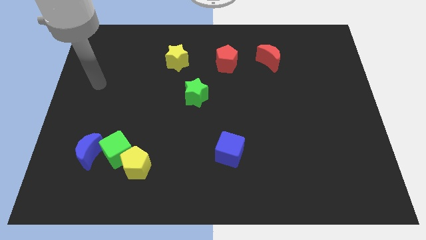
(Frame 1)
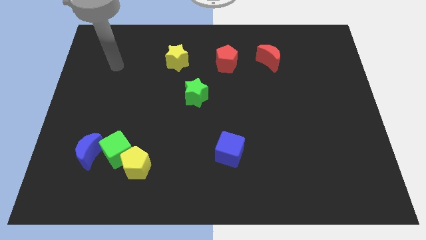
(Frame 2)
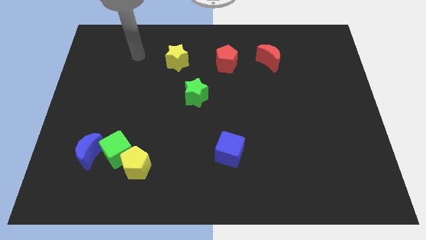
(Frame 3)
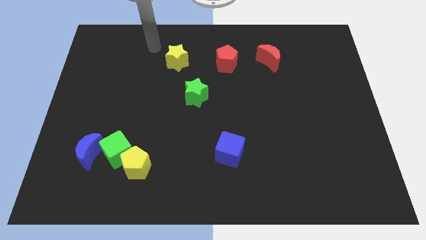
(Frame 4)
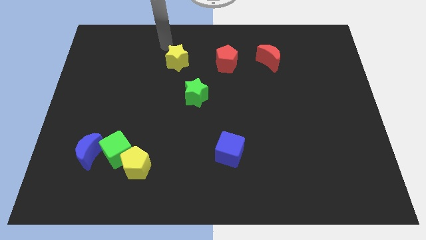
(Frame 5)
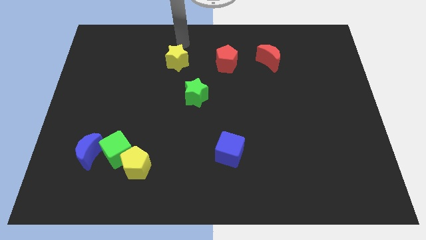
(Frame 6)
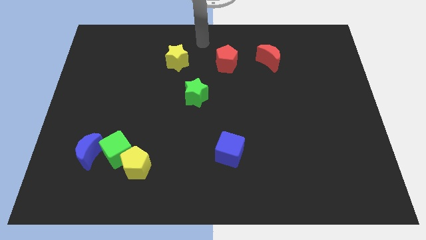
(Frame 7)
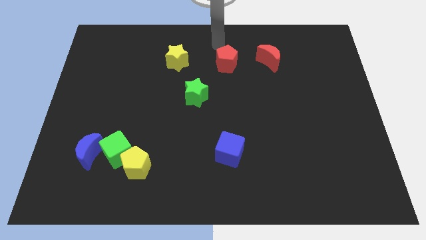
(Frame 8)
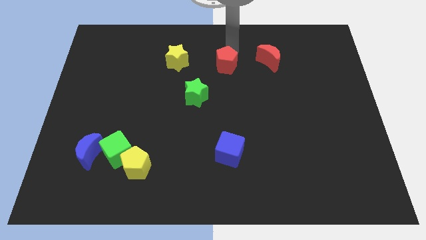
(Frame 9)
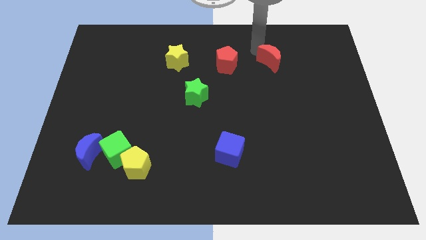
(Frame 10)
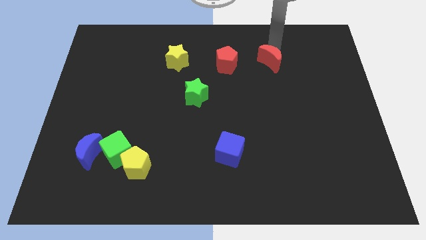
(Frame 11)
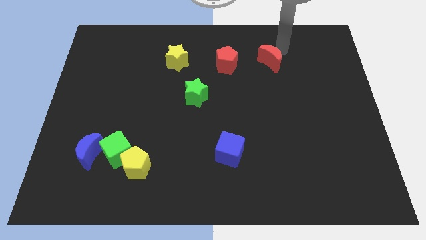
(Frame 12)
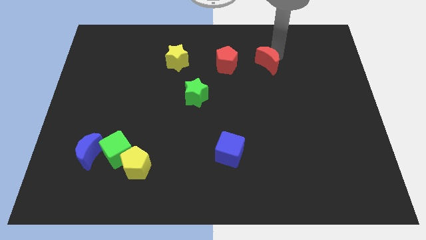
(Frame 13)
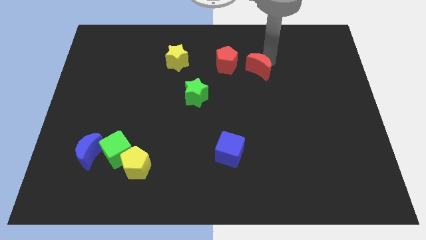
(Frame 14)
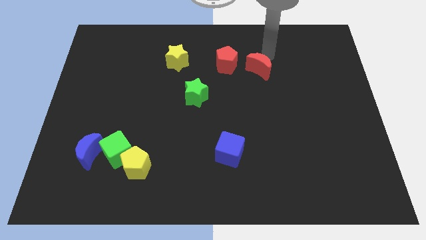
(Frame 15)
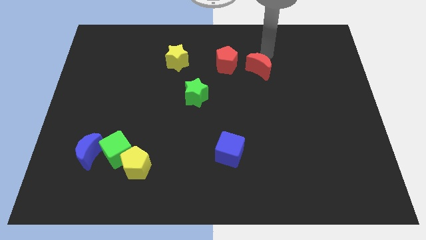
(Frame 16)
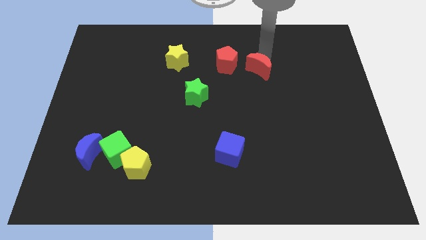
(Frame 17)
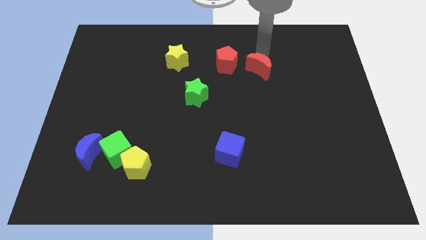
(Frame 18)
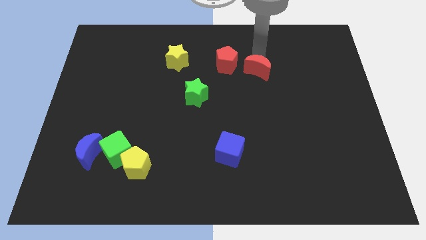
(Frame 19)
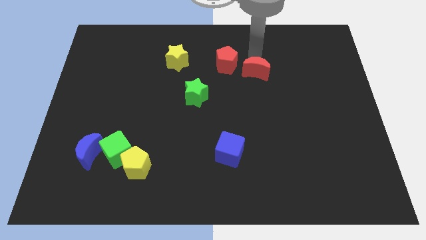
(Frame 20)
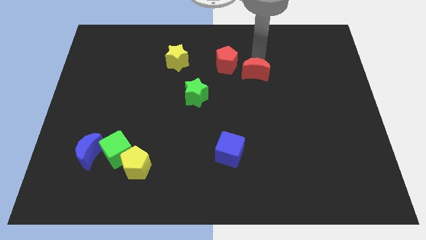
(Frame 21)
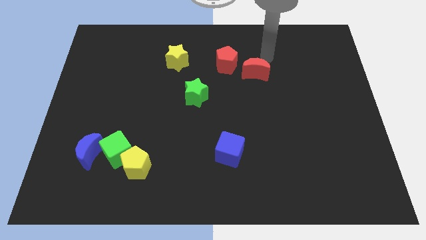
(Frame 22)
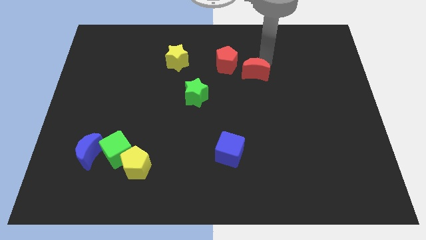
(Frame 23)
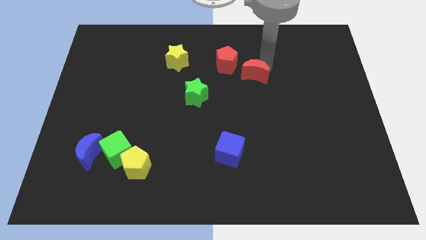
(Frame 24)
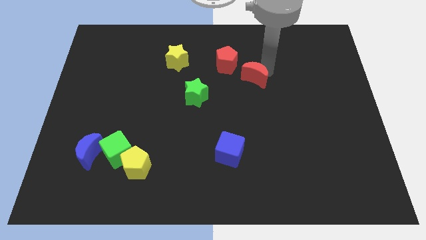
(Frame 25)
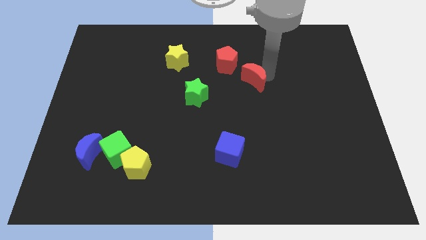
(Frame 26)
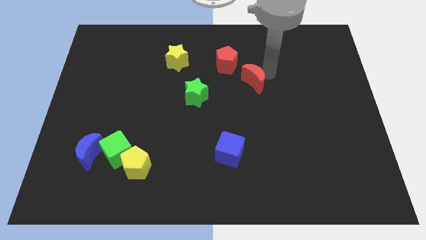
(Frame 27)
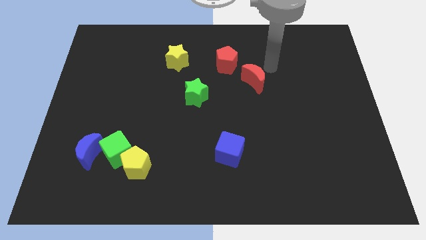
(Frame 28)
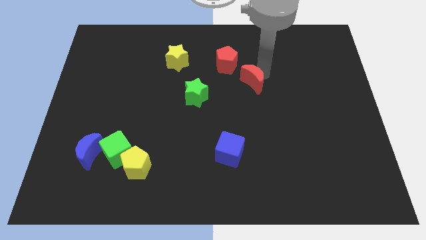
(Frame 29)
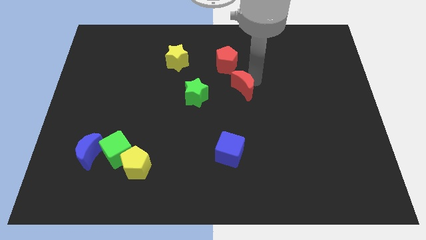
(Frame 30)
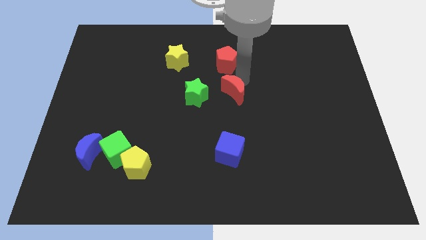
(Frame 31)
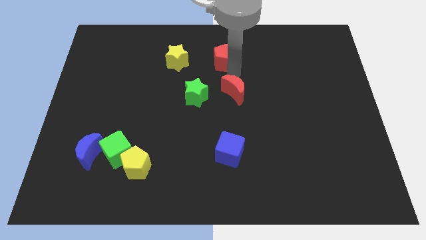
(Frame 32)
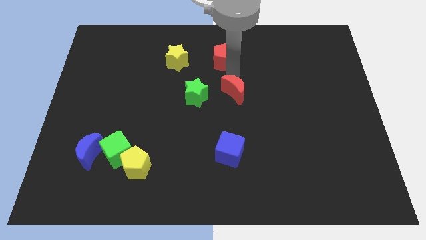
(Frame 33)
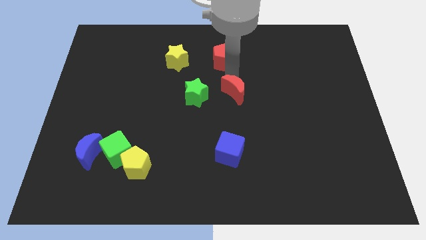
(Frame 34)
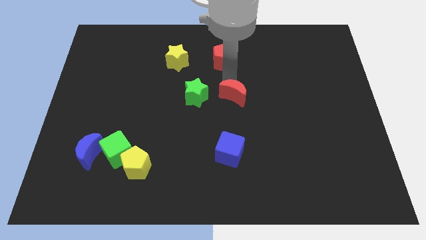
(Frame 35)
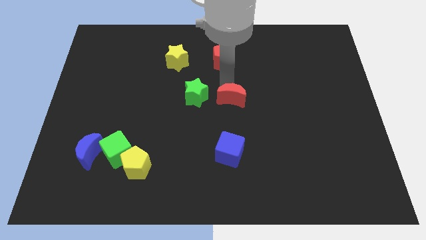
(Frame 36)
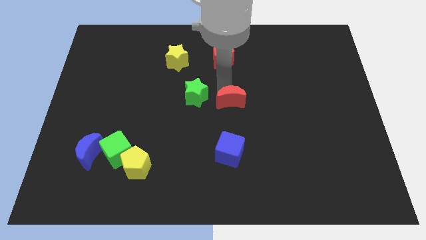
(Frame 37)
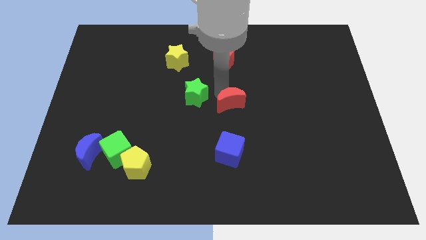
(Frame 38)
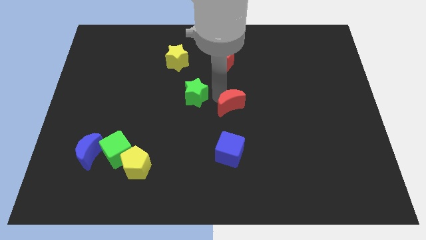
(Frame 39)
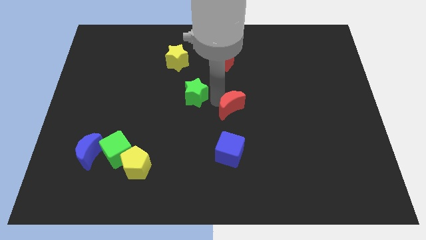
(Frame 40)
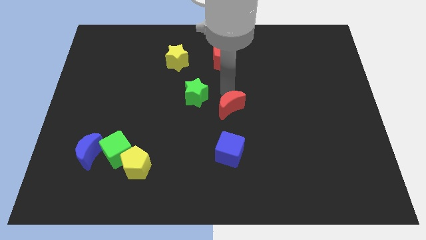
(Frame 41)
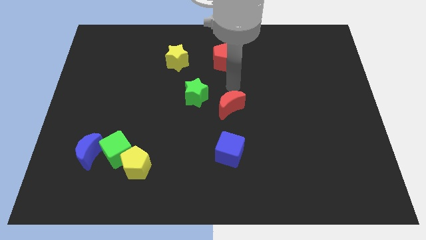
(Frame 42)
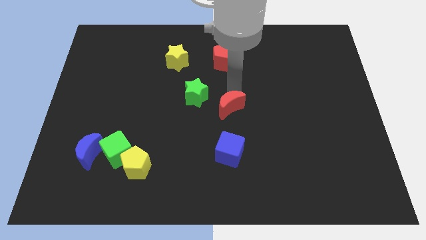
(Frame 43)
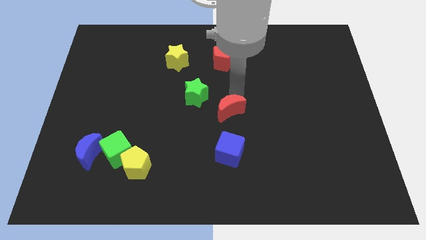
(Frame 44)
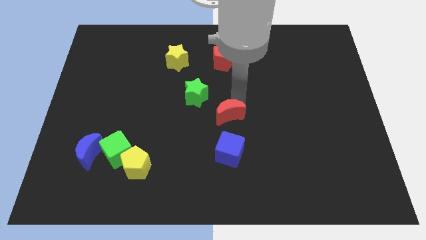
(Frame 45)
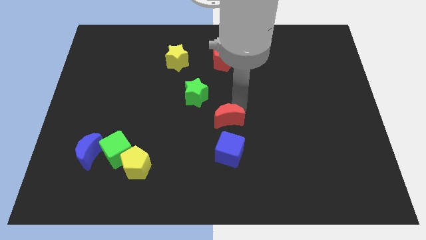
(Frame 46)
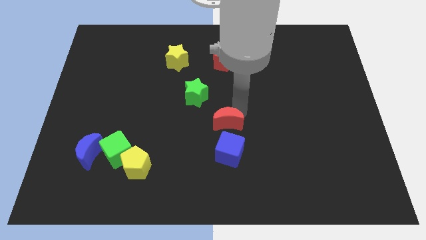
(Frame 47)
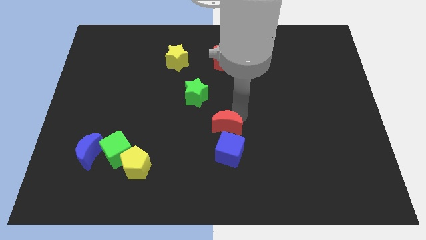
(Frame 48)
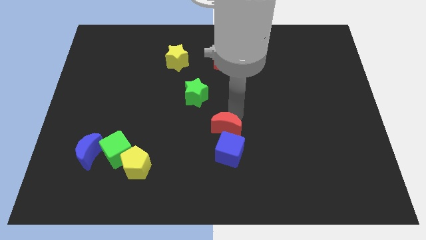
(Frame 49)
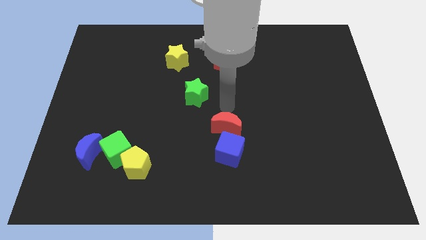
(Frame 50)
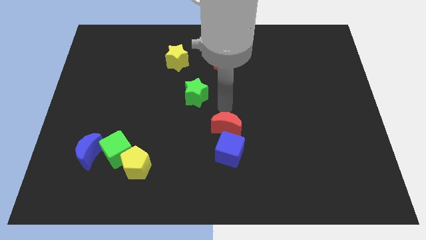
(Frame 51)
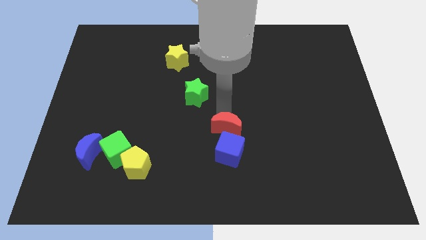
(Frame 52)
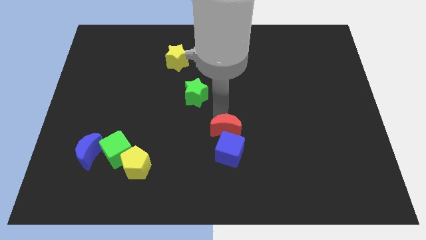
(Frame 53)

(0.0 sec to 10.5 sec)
move the red moon to the blue cube

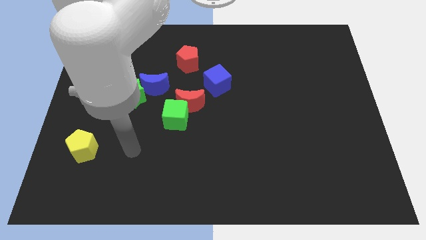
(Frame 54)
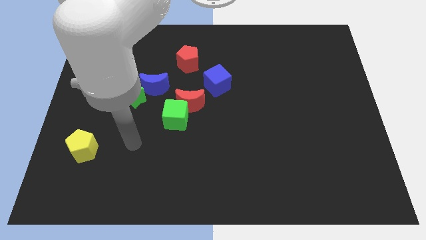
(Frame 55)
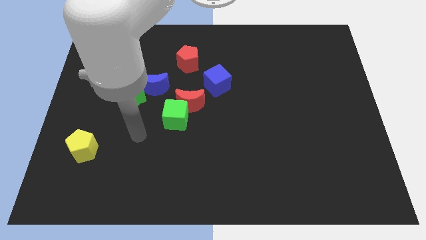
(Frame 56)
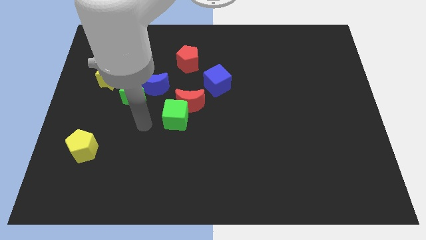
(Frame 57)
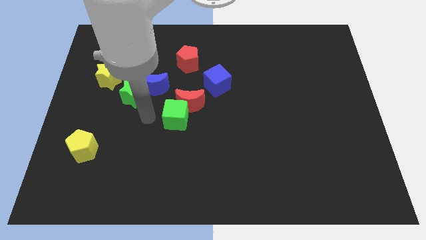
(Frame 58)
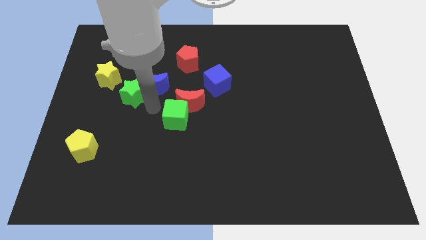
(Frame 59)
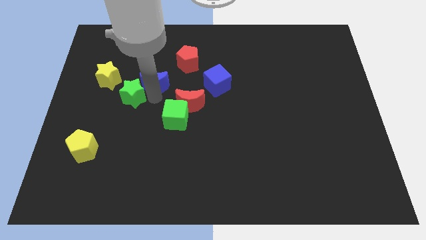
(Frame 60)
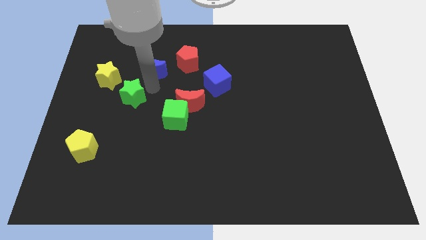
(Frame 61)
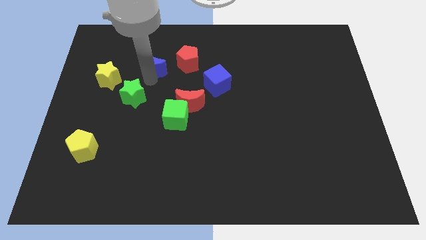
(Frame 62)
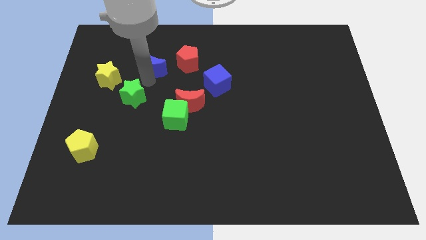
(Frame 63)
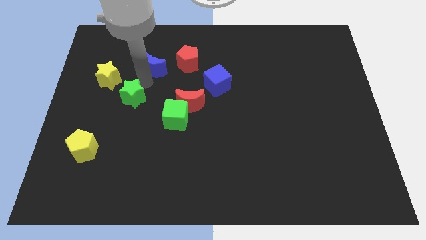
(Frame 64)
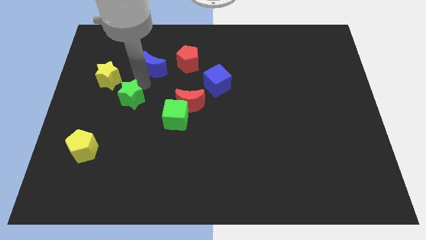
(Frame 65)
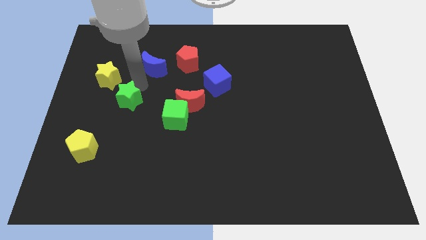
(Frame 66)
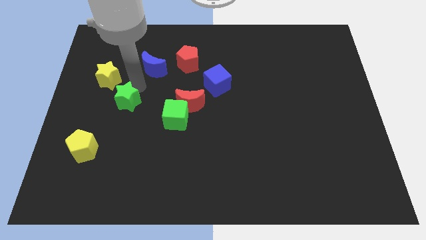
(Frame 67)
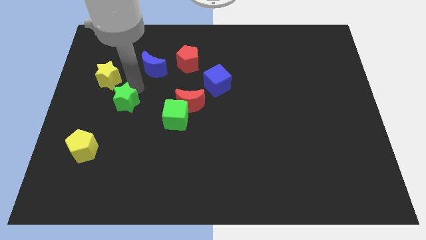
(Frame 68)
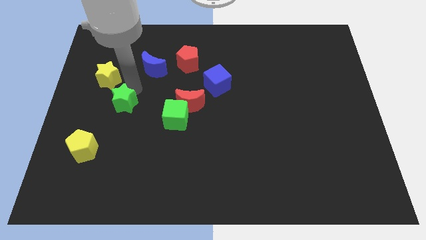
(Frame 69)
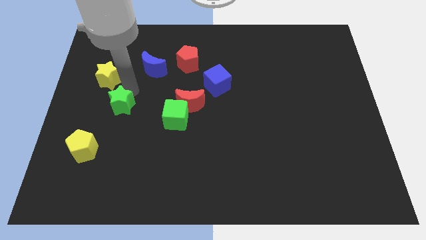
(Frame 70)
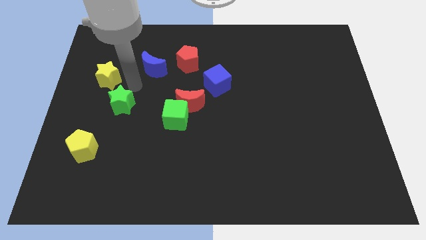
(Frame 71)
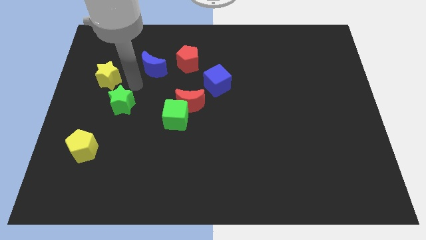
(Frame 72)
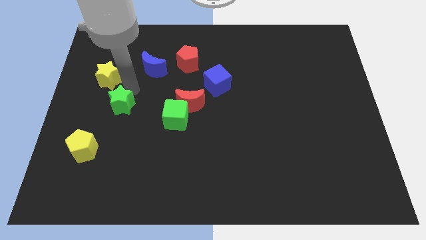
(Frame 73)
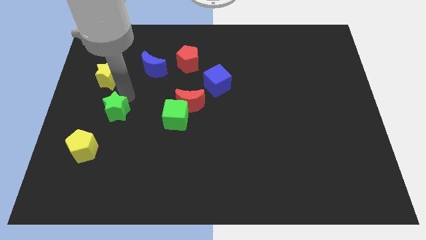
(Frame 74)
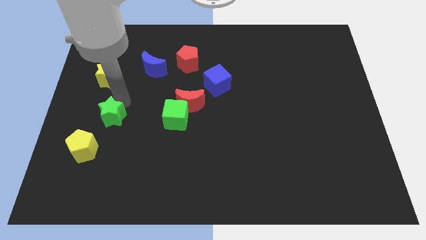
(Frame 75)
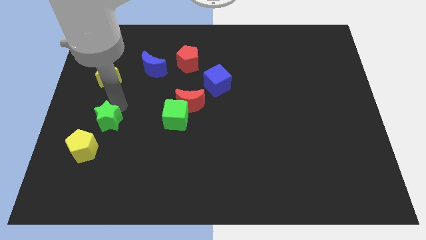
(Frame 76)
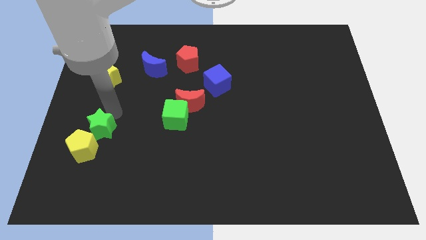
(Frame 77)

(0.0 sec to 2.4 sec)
slide the green star close to the yellow pentagon
